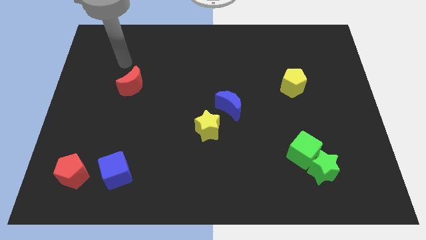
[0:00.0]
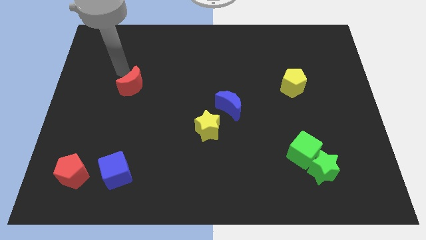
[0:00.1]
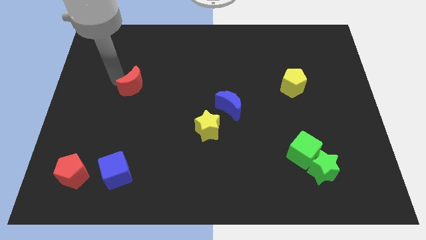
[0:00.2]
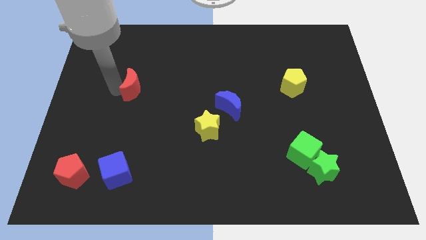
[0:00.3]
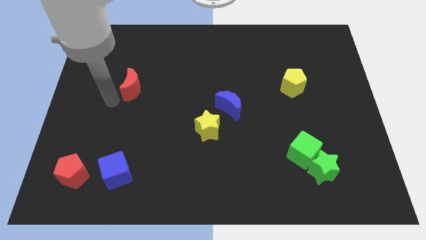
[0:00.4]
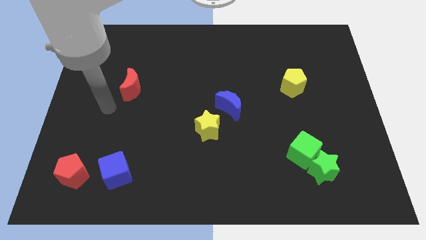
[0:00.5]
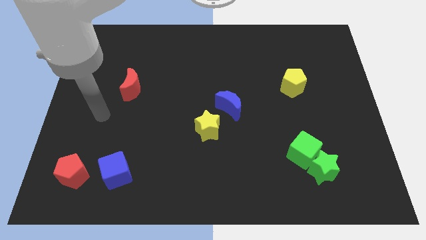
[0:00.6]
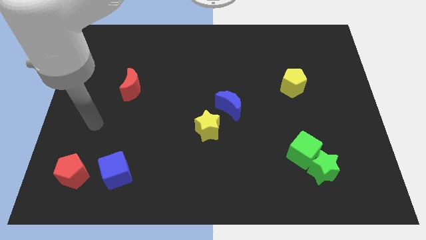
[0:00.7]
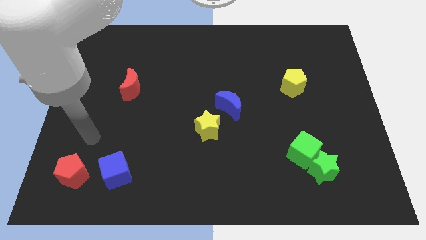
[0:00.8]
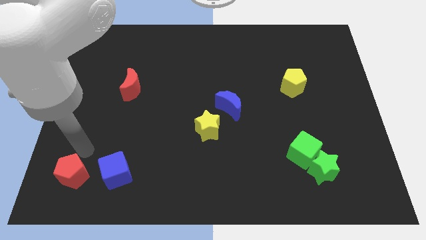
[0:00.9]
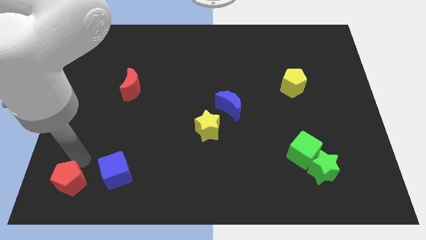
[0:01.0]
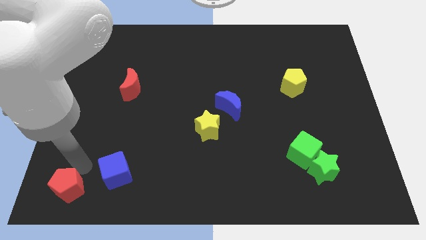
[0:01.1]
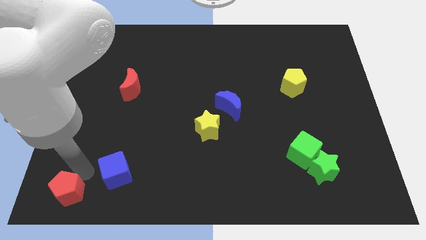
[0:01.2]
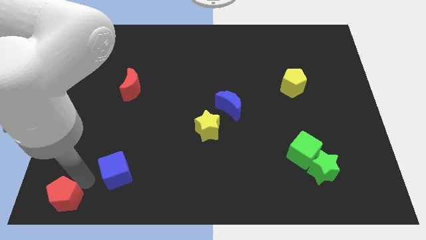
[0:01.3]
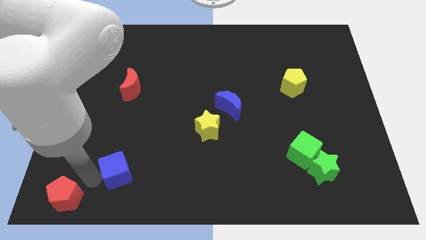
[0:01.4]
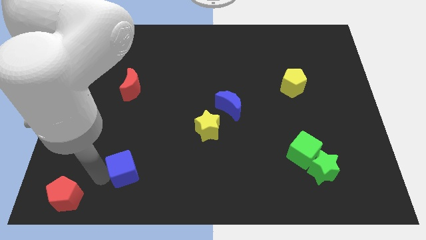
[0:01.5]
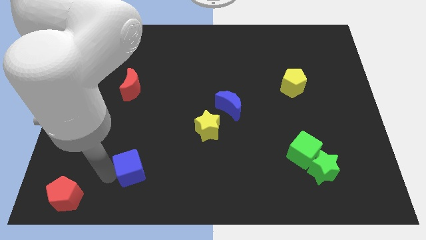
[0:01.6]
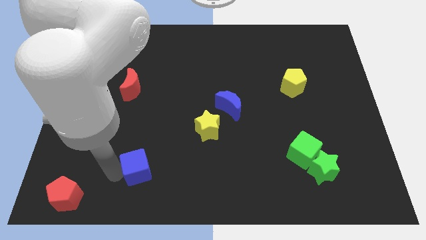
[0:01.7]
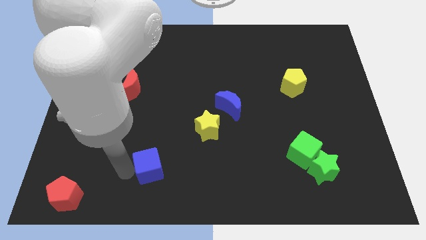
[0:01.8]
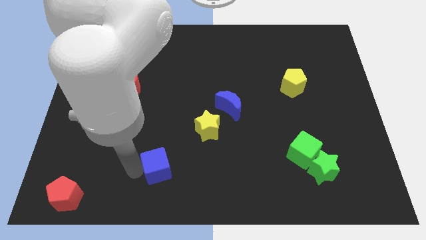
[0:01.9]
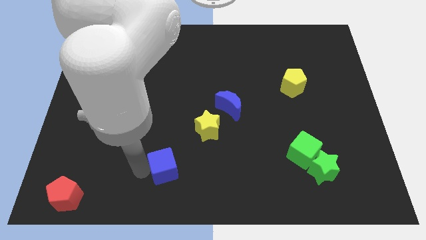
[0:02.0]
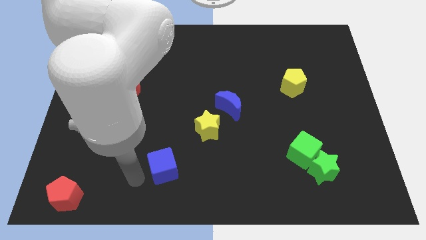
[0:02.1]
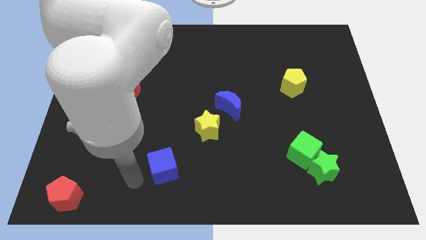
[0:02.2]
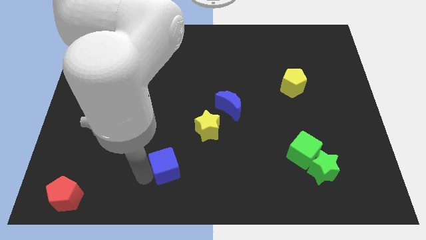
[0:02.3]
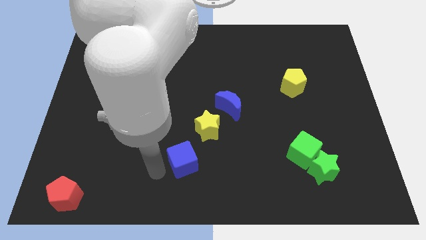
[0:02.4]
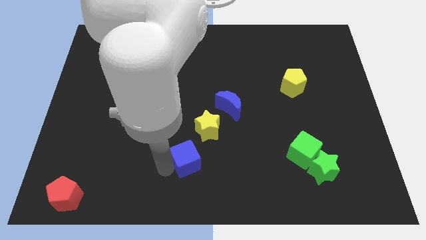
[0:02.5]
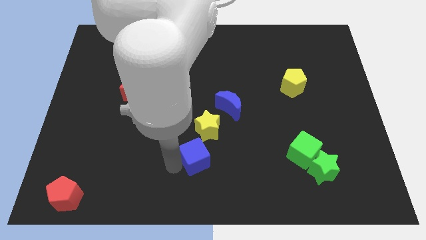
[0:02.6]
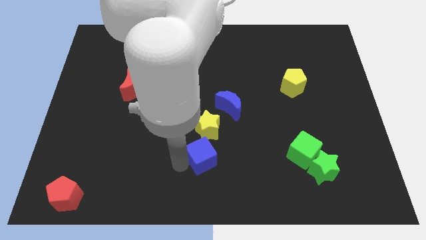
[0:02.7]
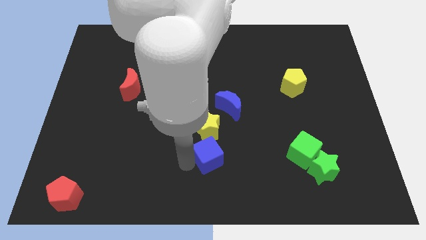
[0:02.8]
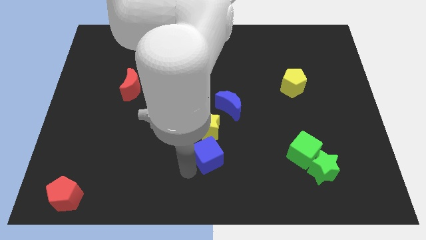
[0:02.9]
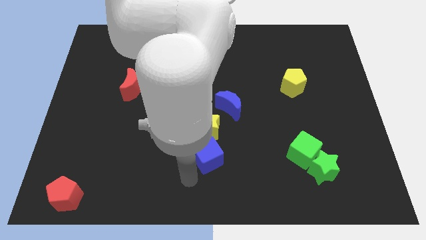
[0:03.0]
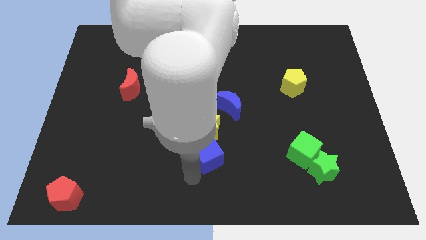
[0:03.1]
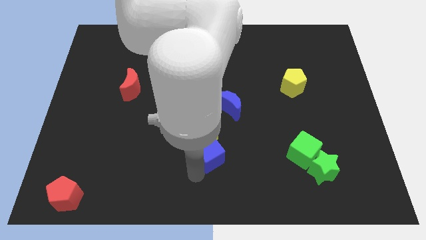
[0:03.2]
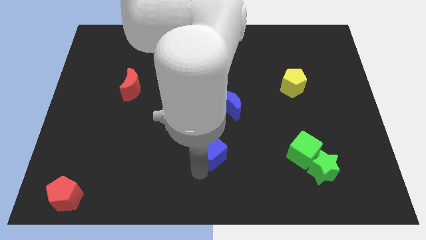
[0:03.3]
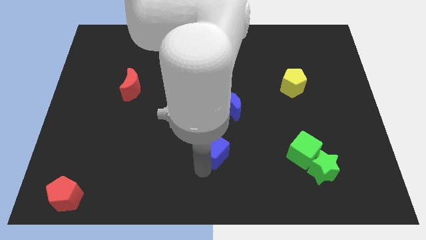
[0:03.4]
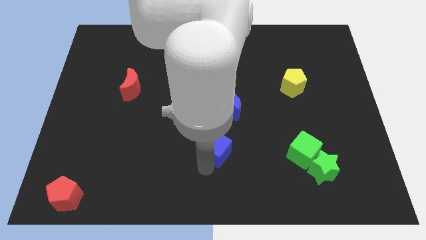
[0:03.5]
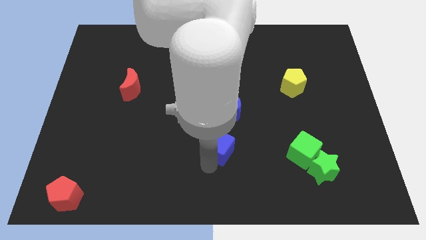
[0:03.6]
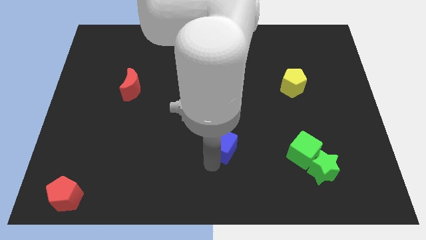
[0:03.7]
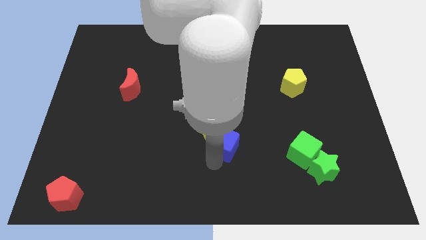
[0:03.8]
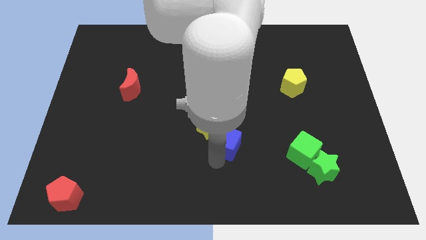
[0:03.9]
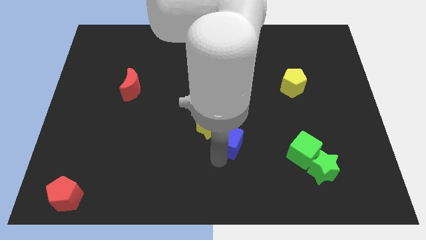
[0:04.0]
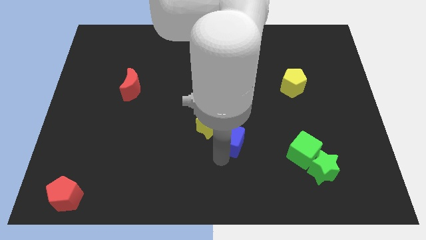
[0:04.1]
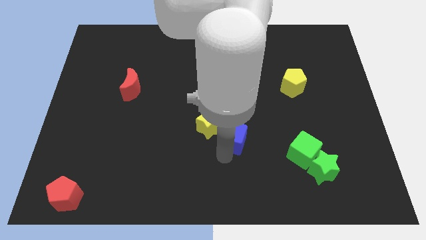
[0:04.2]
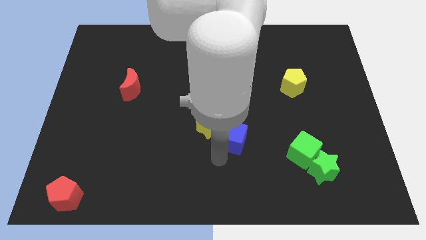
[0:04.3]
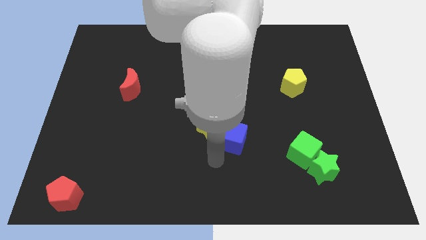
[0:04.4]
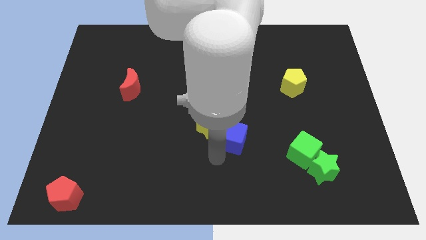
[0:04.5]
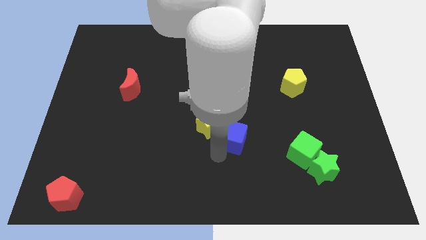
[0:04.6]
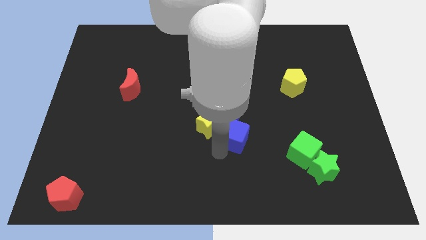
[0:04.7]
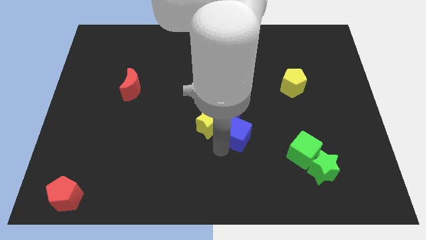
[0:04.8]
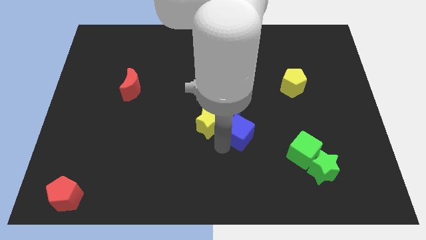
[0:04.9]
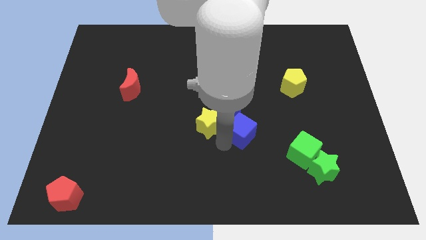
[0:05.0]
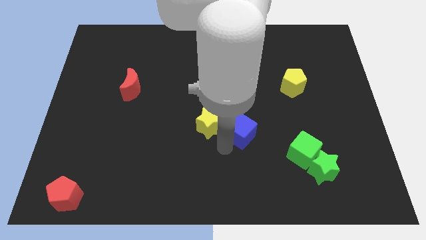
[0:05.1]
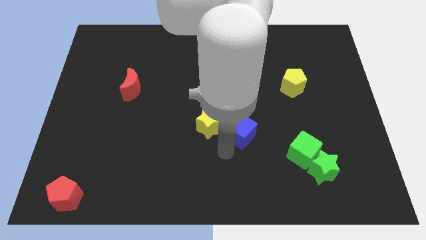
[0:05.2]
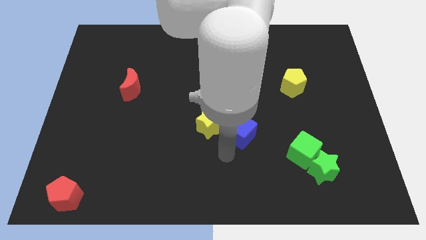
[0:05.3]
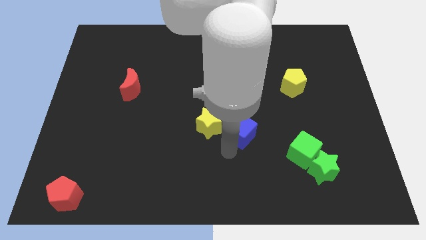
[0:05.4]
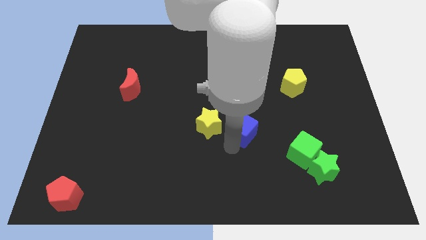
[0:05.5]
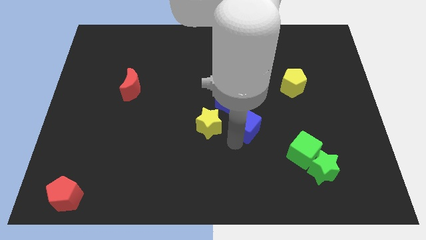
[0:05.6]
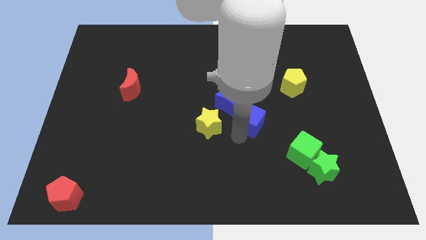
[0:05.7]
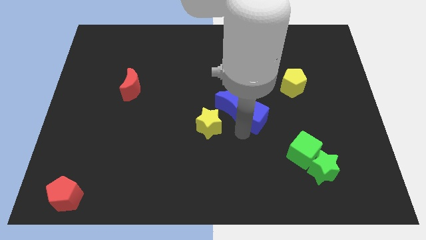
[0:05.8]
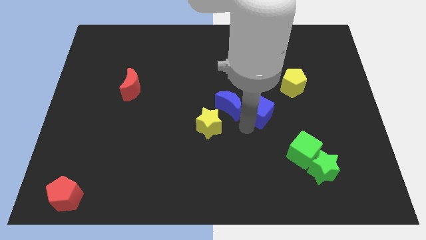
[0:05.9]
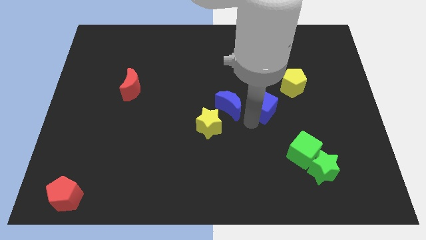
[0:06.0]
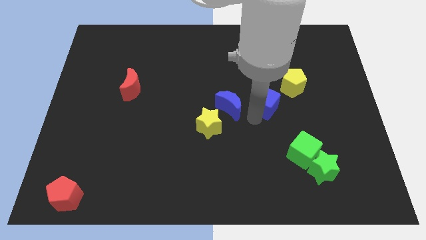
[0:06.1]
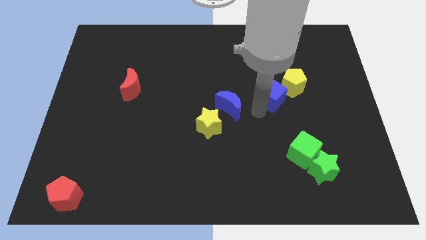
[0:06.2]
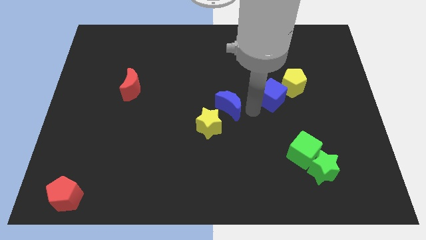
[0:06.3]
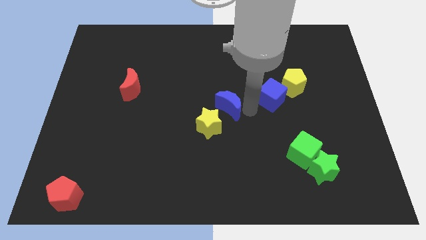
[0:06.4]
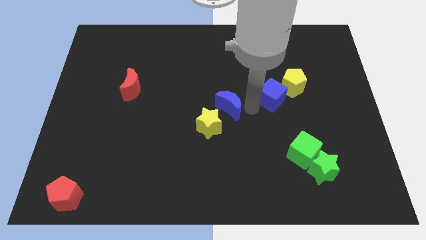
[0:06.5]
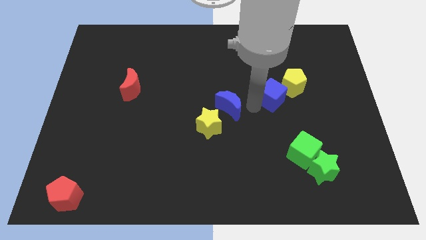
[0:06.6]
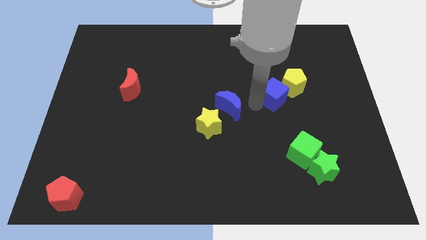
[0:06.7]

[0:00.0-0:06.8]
push the blue cube to the yellow pentagon

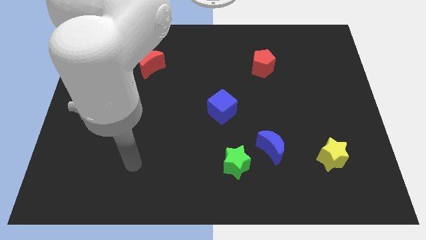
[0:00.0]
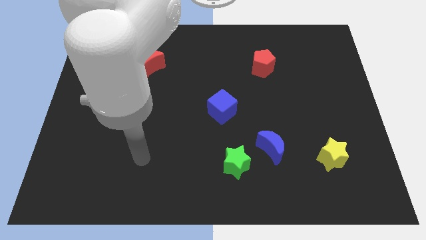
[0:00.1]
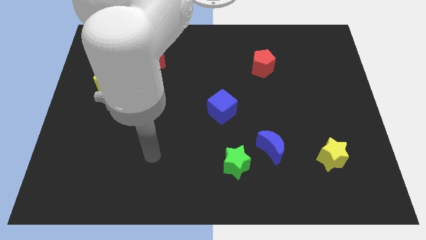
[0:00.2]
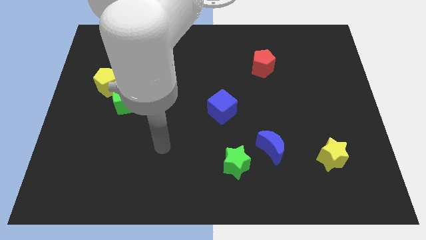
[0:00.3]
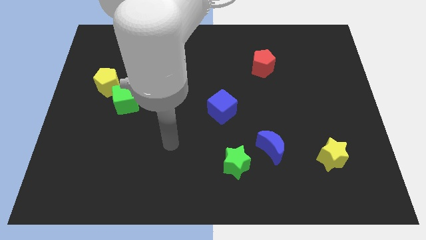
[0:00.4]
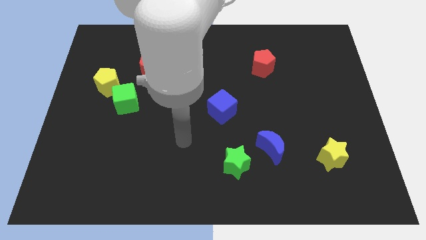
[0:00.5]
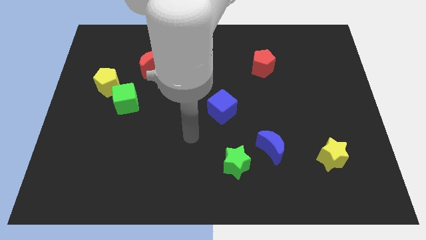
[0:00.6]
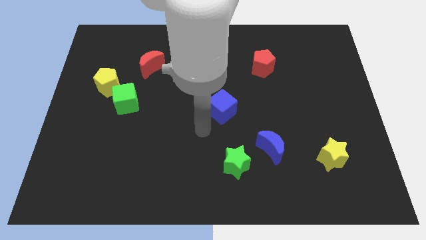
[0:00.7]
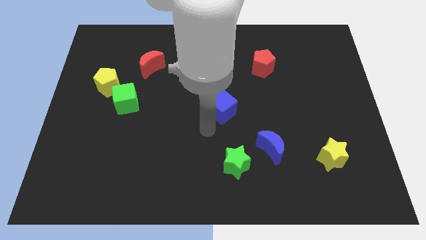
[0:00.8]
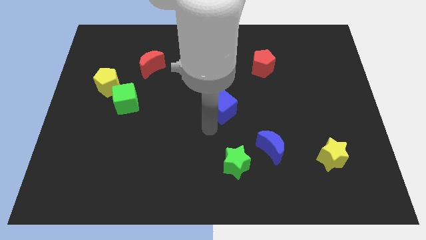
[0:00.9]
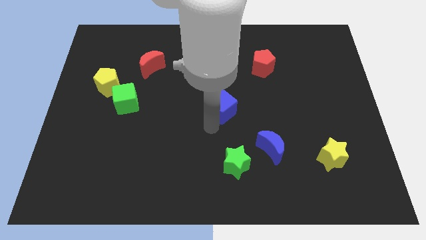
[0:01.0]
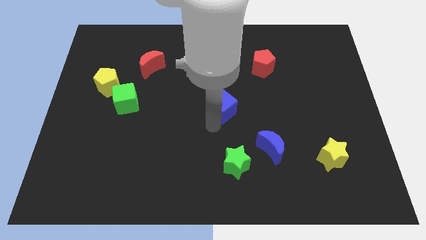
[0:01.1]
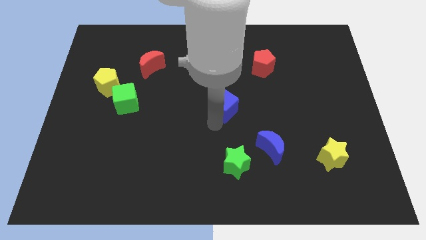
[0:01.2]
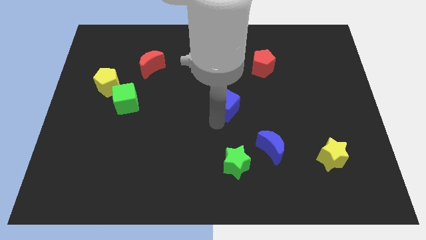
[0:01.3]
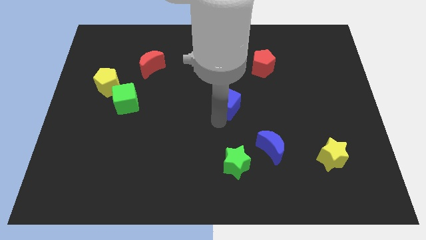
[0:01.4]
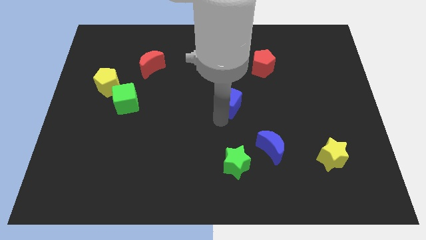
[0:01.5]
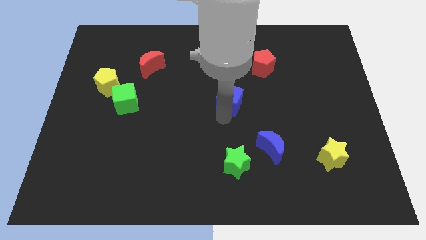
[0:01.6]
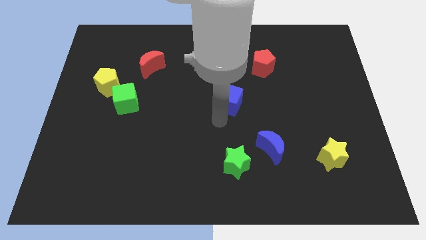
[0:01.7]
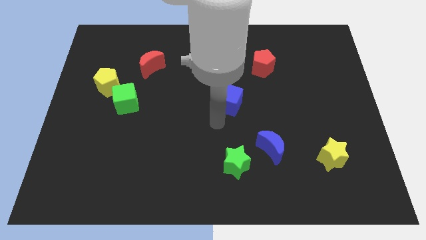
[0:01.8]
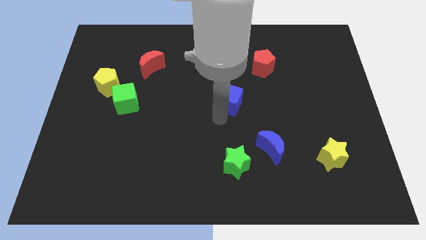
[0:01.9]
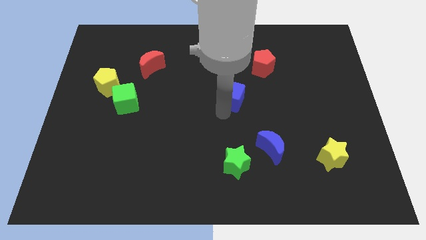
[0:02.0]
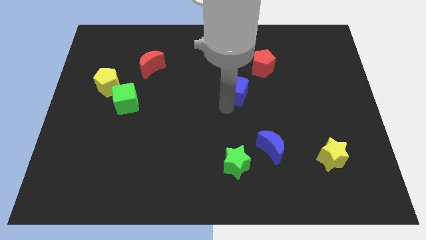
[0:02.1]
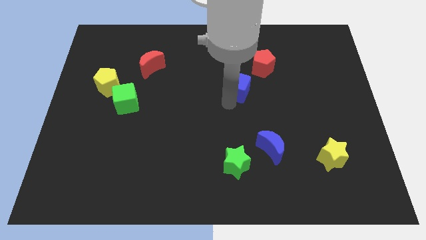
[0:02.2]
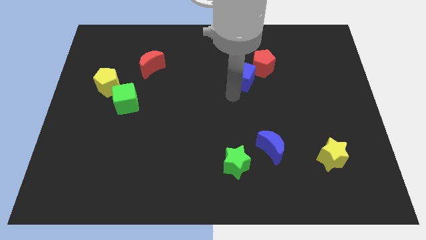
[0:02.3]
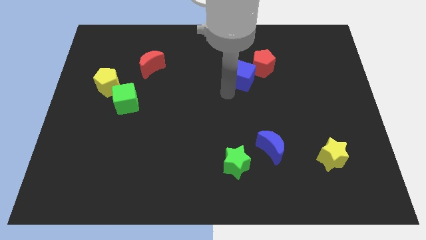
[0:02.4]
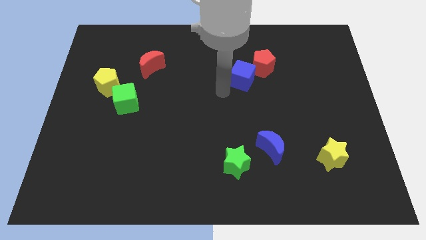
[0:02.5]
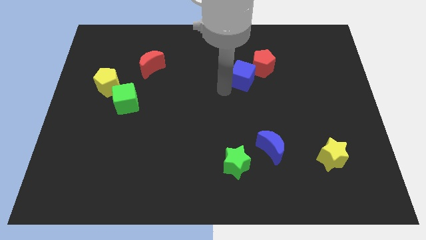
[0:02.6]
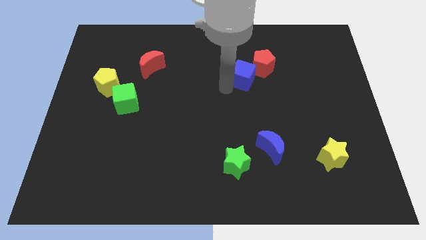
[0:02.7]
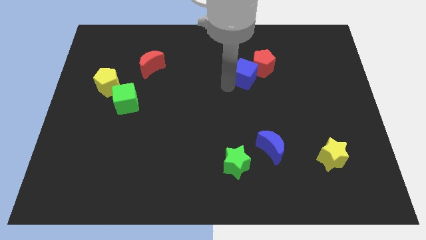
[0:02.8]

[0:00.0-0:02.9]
put the blue cube next to the red pentagon
